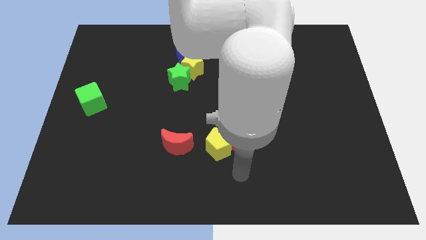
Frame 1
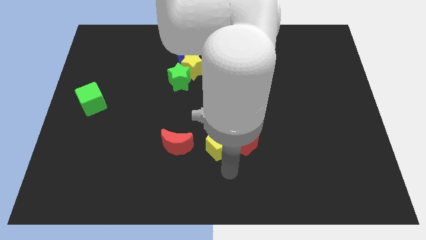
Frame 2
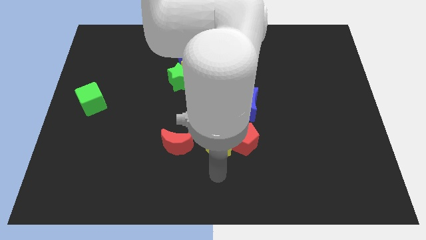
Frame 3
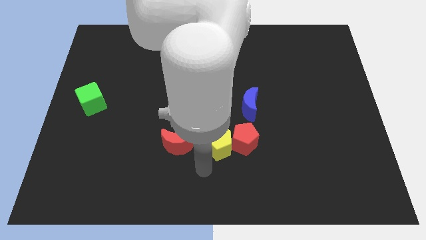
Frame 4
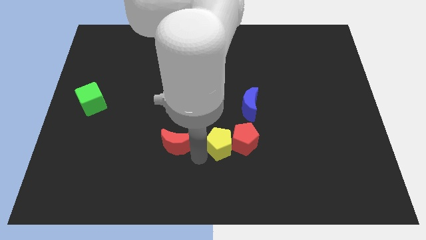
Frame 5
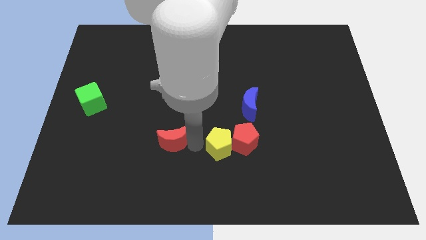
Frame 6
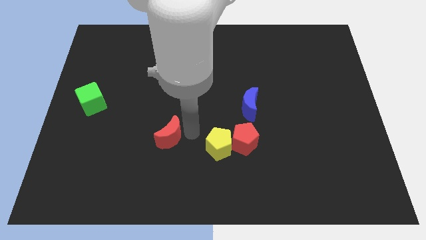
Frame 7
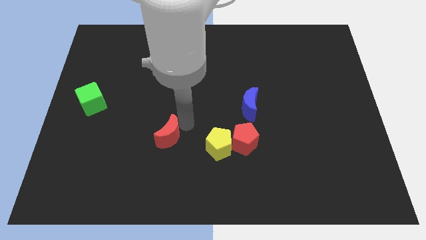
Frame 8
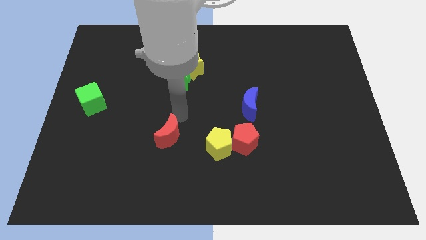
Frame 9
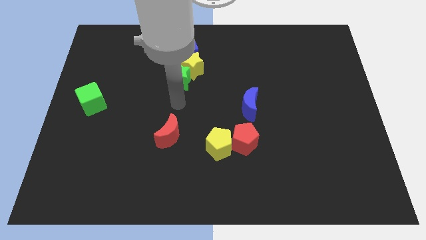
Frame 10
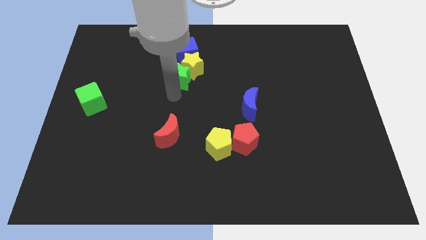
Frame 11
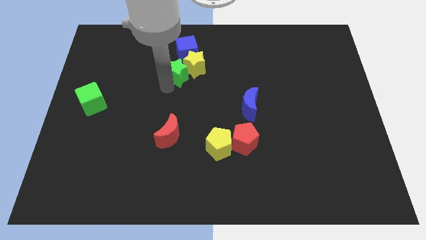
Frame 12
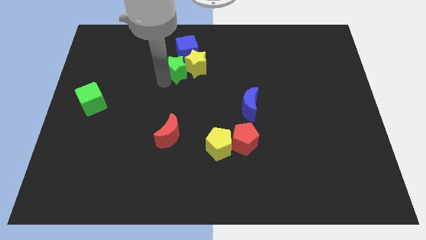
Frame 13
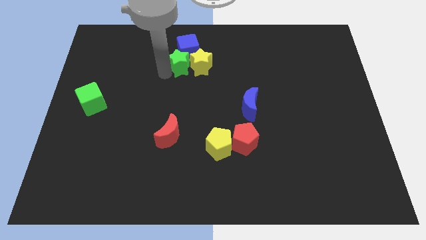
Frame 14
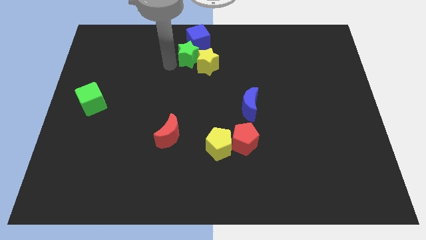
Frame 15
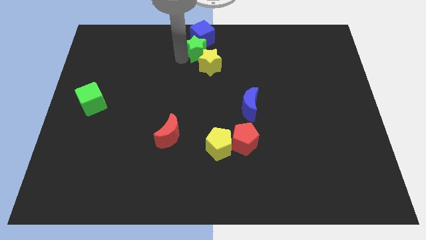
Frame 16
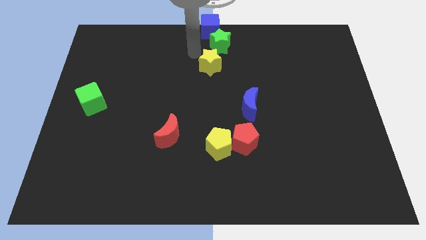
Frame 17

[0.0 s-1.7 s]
separate the yellow star from the green star and blue cube

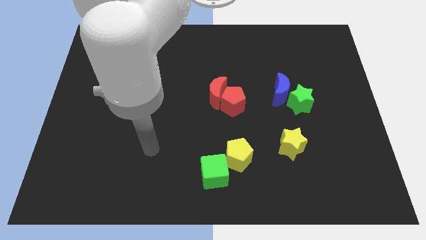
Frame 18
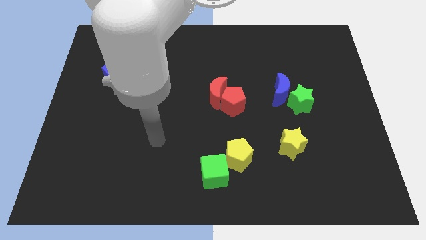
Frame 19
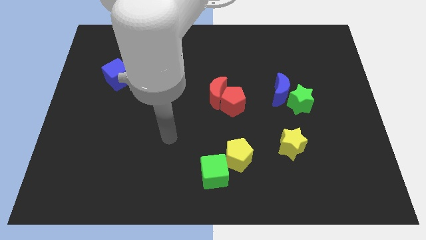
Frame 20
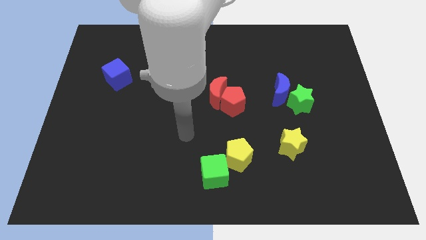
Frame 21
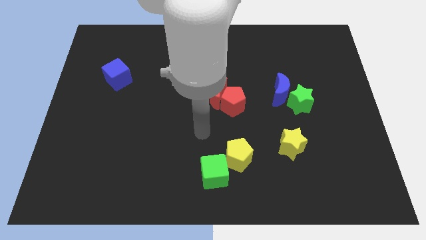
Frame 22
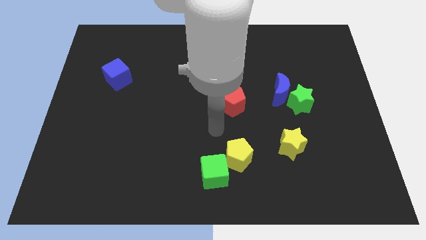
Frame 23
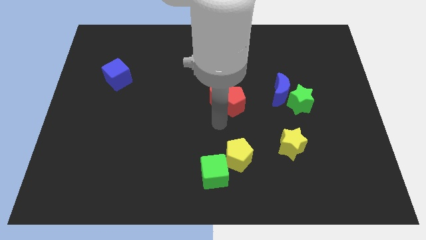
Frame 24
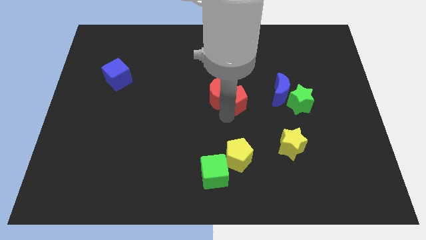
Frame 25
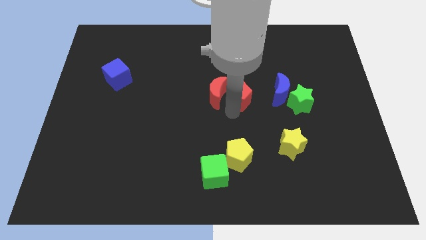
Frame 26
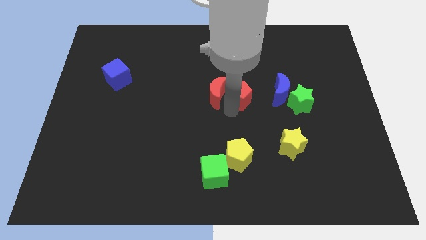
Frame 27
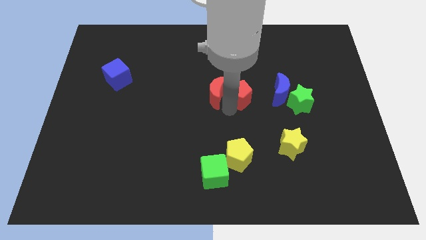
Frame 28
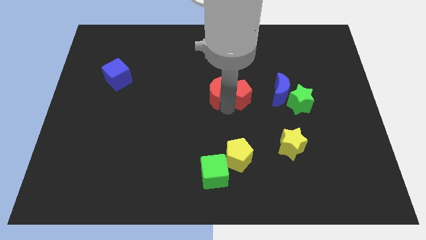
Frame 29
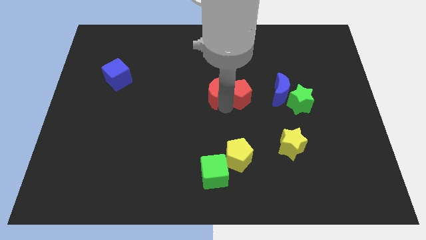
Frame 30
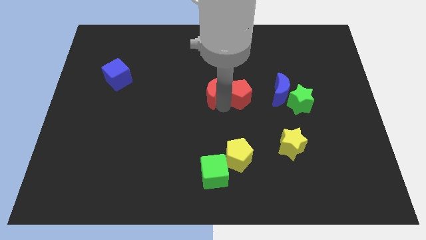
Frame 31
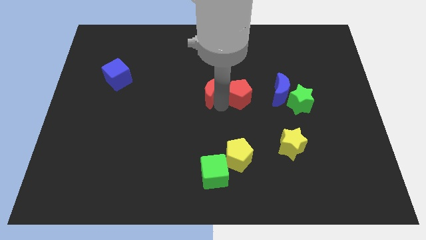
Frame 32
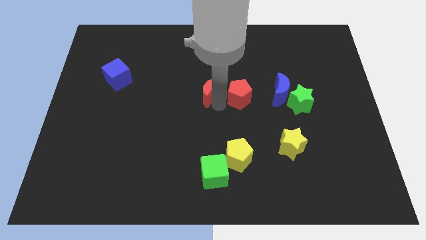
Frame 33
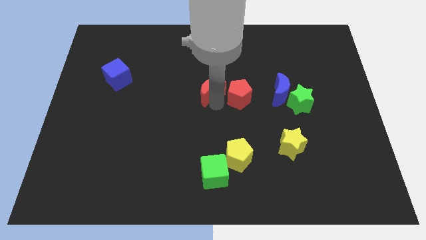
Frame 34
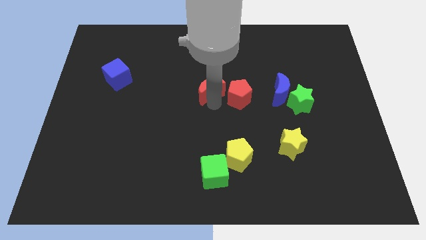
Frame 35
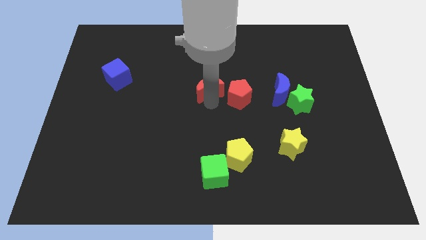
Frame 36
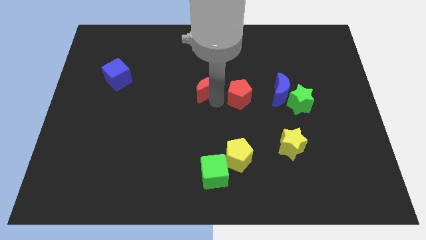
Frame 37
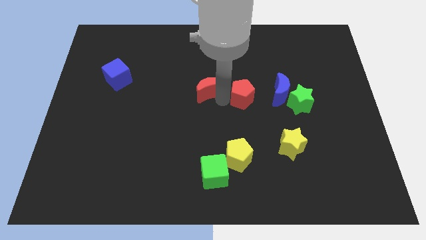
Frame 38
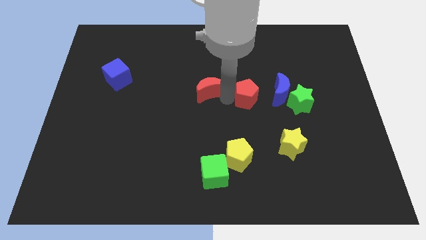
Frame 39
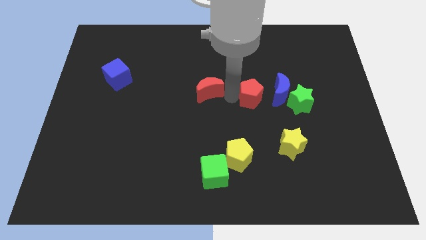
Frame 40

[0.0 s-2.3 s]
move the red moon away from the red pentagon

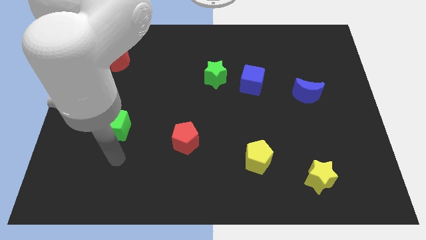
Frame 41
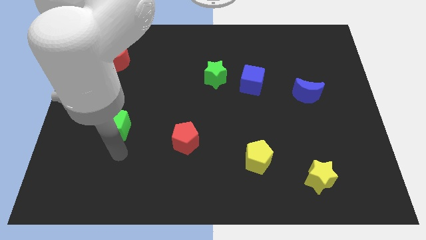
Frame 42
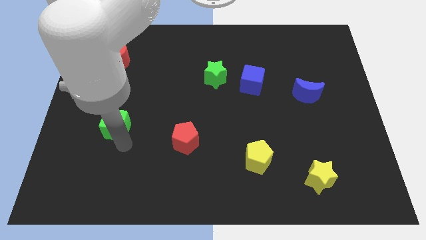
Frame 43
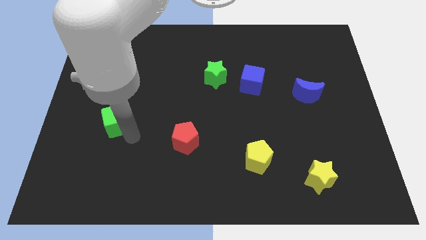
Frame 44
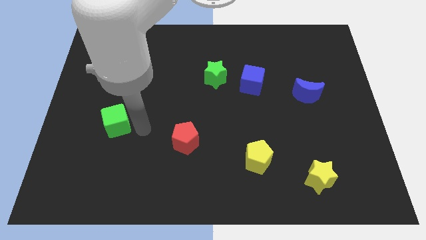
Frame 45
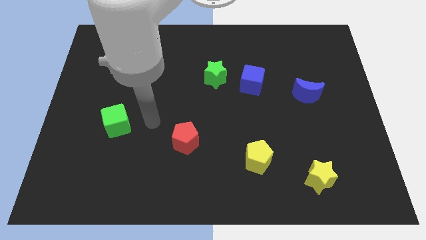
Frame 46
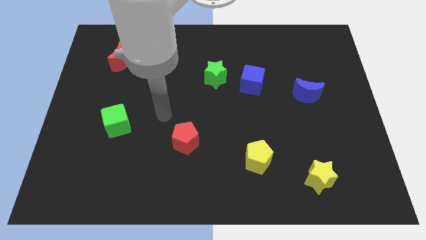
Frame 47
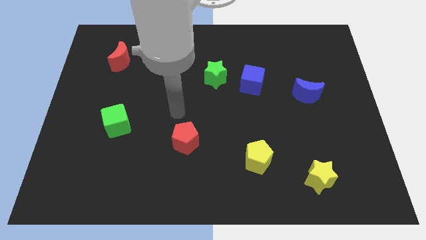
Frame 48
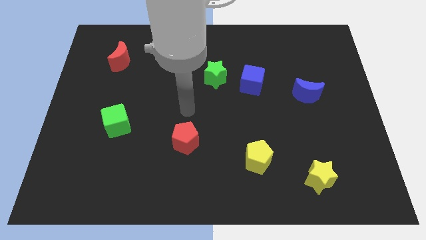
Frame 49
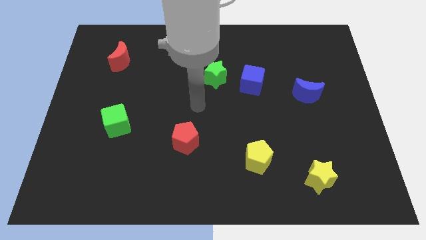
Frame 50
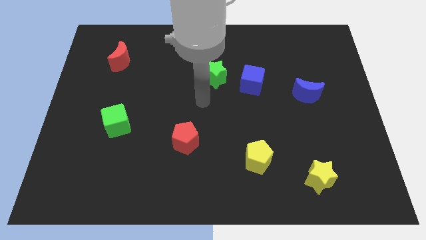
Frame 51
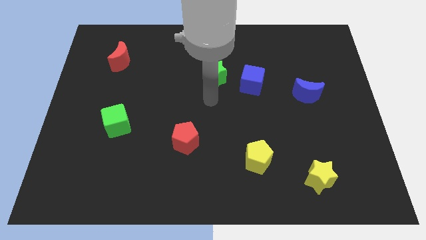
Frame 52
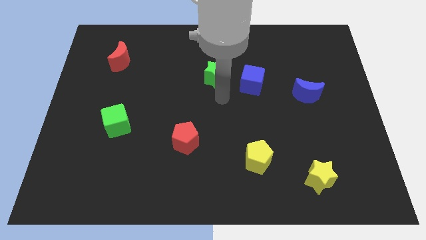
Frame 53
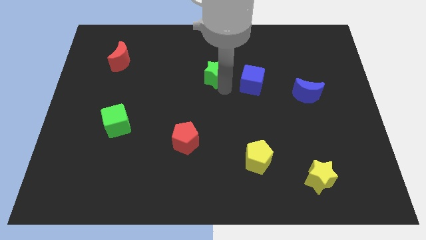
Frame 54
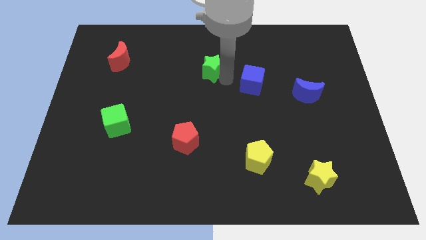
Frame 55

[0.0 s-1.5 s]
separate the blue cube from the green star

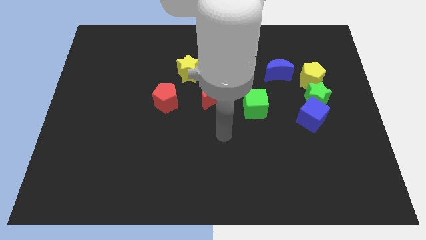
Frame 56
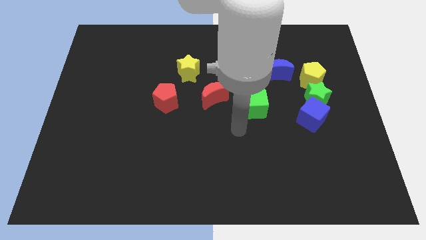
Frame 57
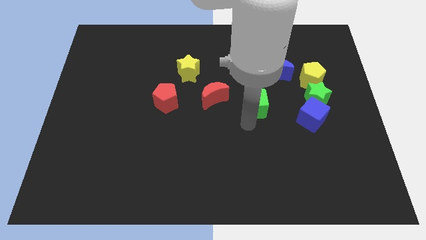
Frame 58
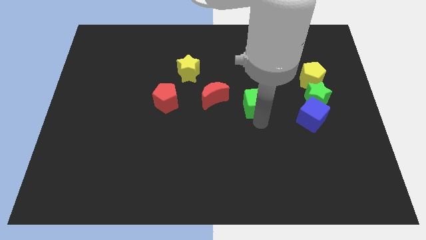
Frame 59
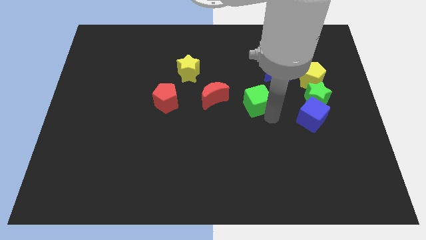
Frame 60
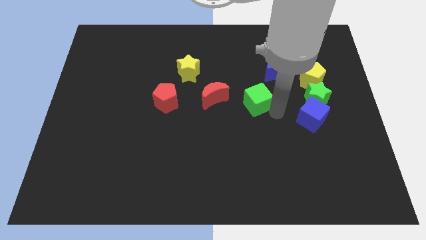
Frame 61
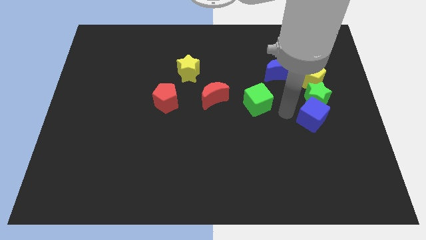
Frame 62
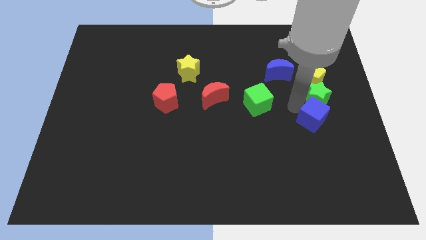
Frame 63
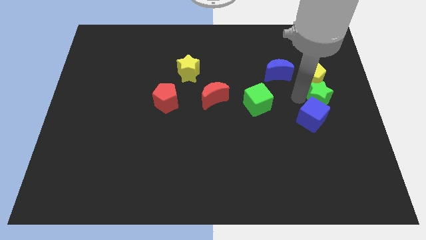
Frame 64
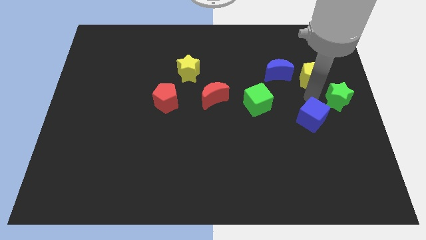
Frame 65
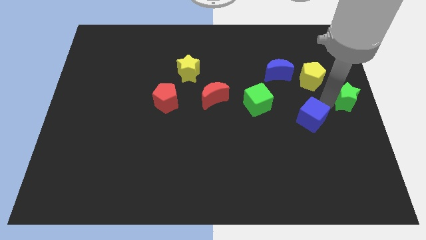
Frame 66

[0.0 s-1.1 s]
pull the blue cube apart from the green star

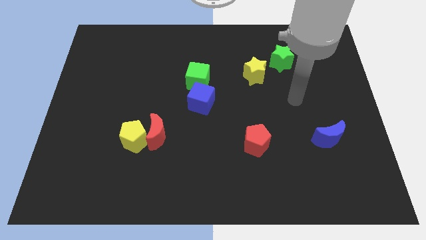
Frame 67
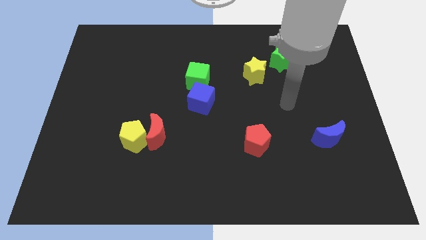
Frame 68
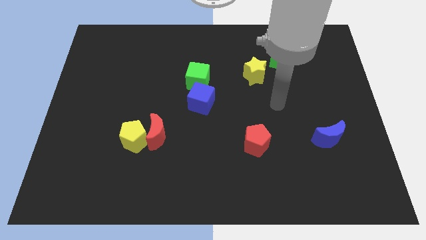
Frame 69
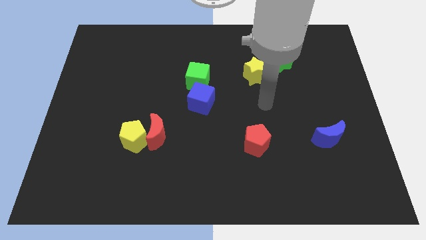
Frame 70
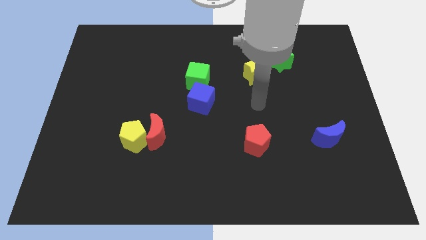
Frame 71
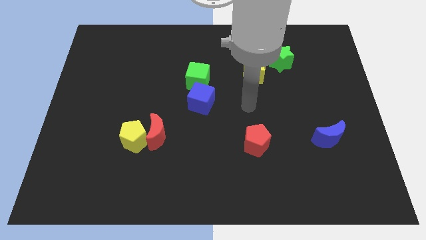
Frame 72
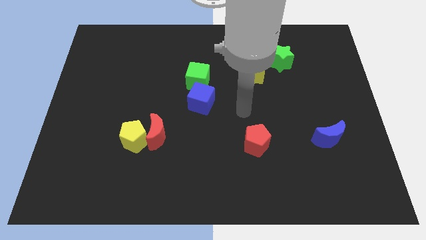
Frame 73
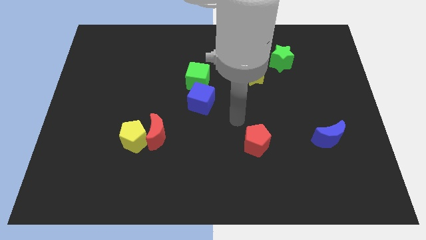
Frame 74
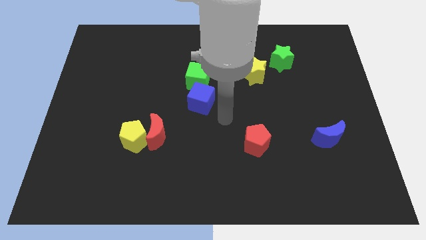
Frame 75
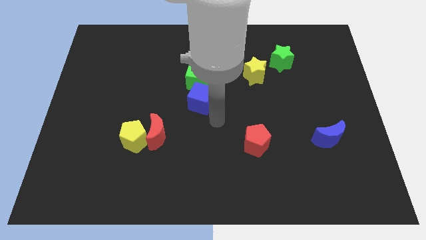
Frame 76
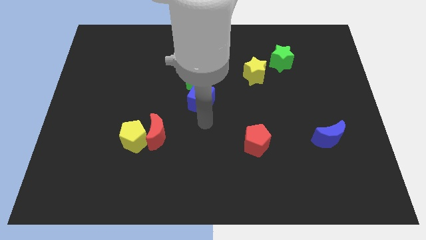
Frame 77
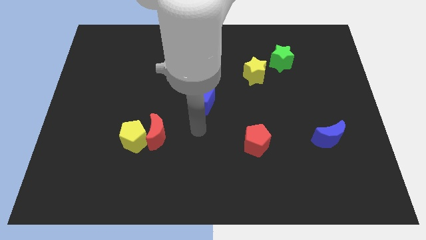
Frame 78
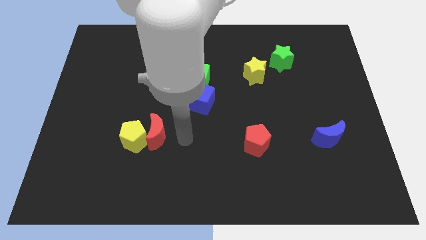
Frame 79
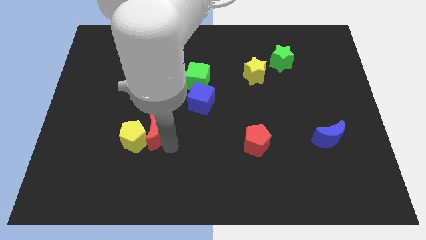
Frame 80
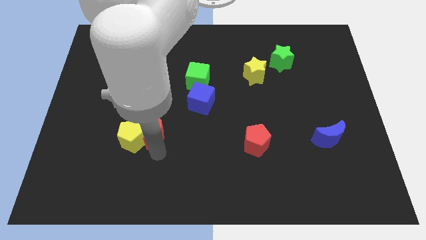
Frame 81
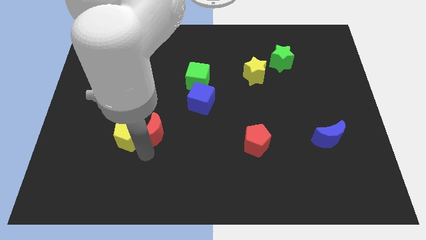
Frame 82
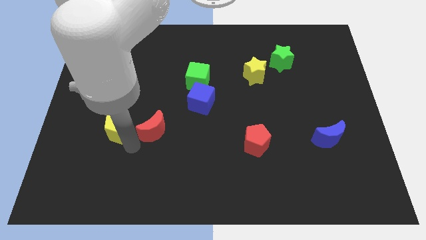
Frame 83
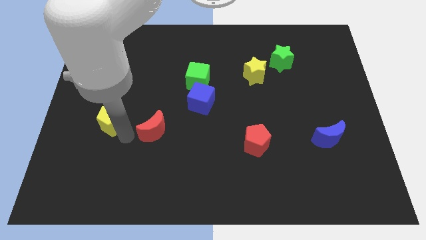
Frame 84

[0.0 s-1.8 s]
move the red moon away from the yellow pentagon

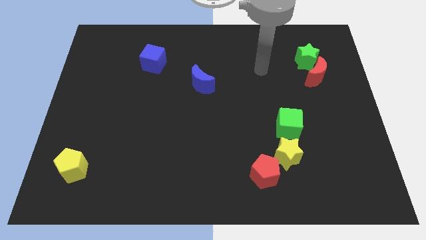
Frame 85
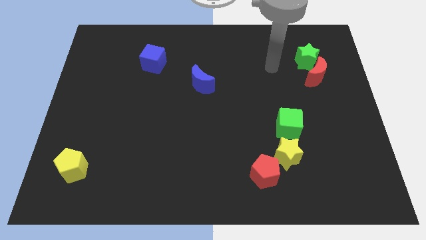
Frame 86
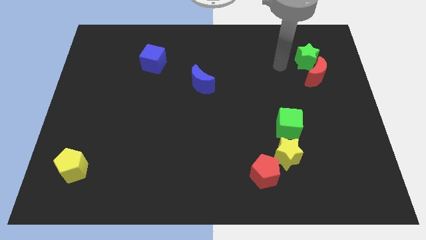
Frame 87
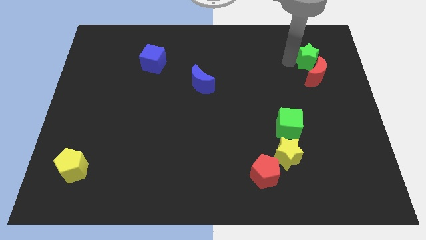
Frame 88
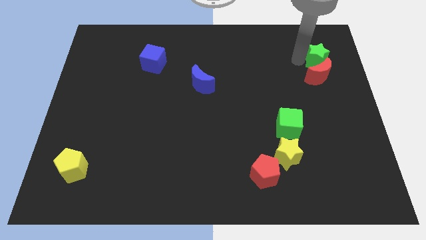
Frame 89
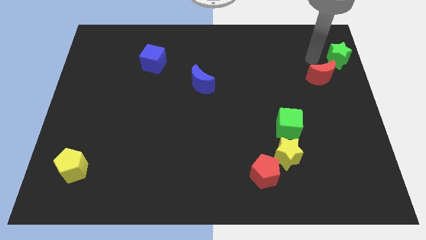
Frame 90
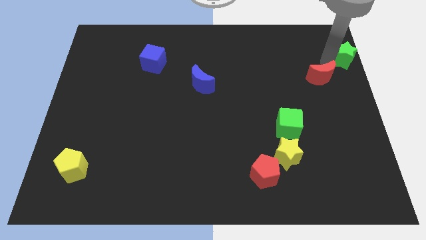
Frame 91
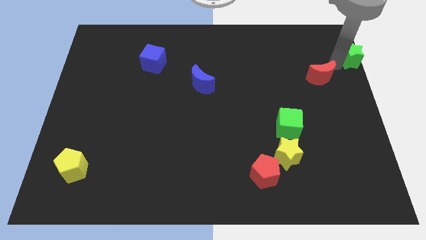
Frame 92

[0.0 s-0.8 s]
move the red moon away from the green star

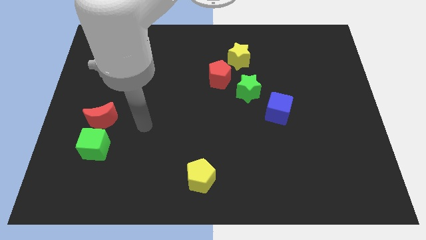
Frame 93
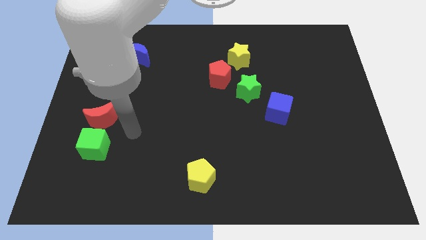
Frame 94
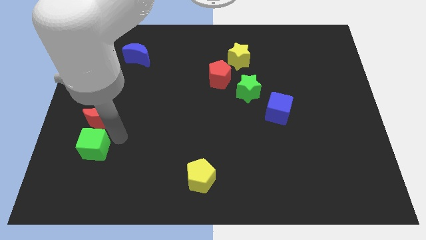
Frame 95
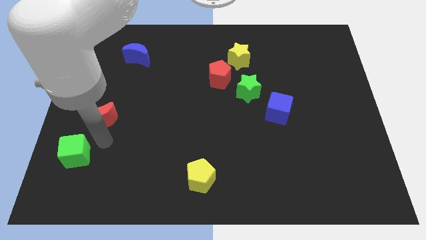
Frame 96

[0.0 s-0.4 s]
move the red moon away from the green cube
